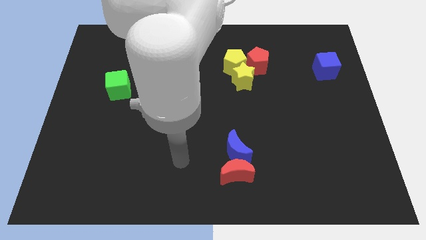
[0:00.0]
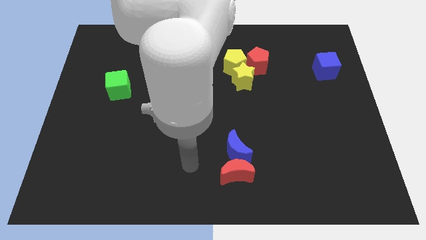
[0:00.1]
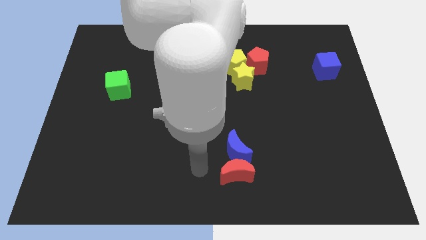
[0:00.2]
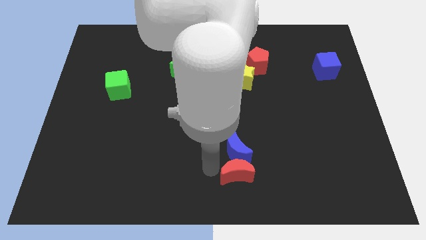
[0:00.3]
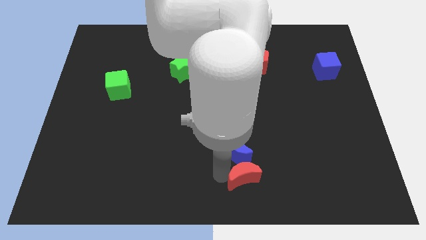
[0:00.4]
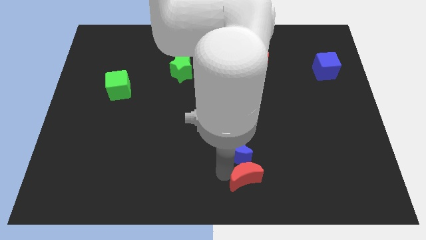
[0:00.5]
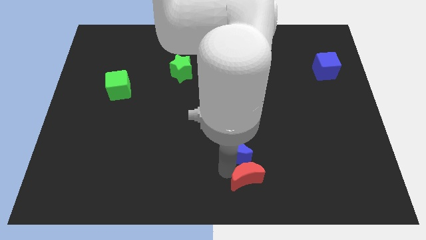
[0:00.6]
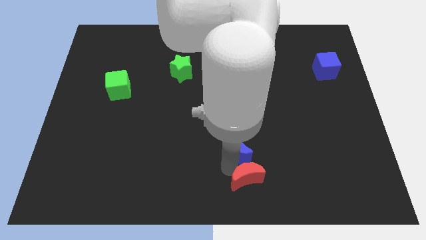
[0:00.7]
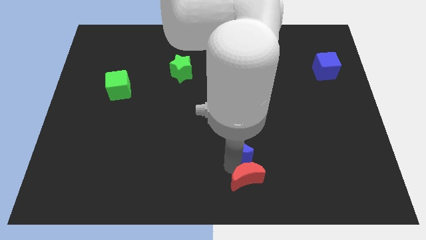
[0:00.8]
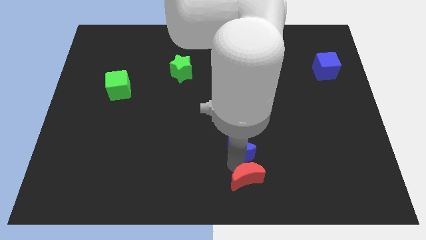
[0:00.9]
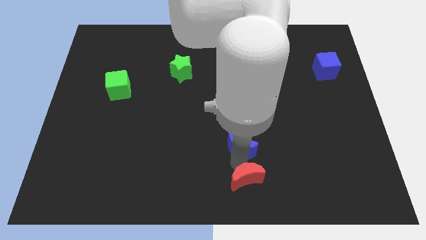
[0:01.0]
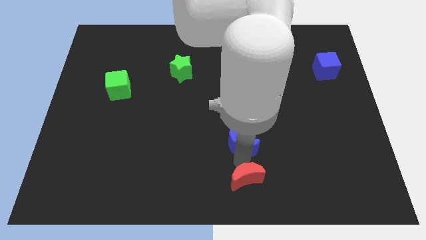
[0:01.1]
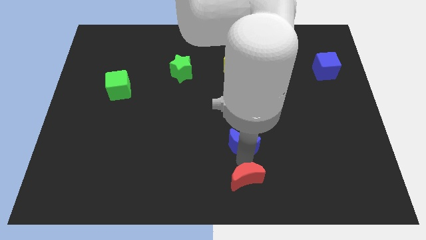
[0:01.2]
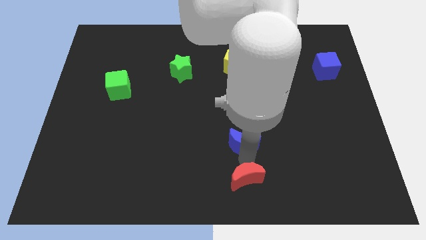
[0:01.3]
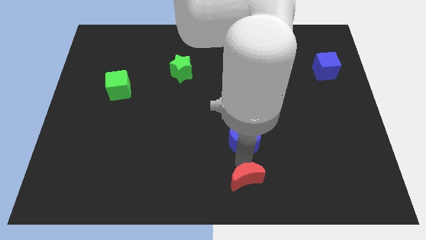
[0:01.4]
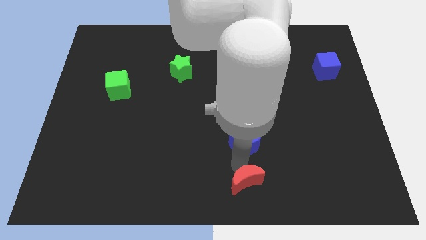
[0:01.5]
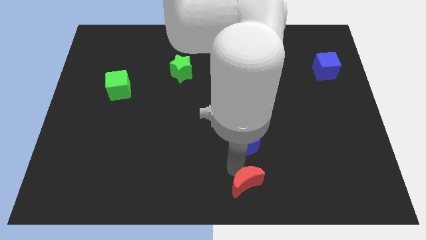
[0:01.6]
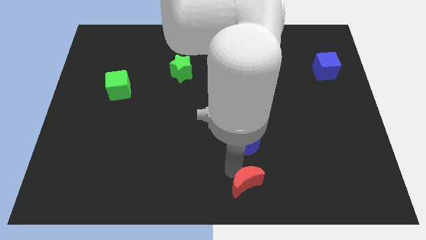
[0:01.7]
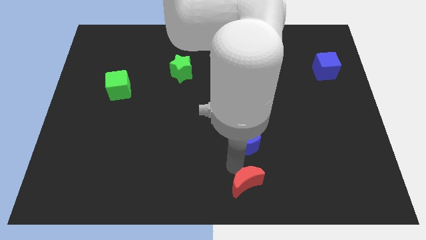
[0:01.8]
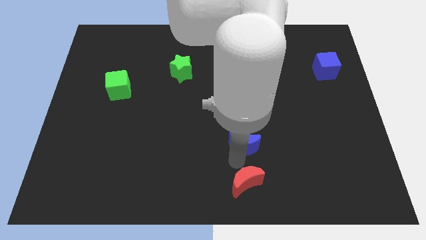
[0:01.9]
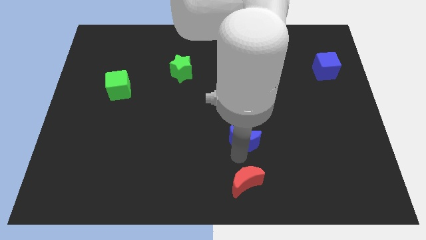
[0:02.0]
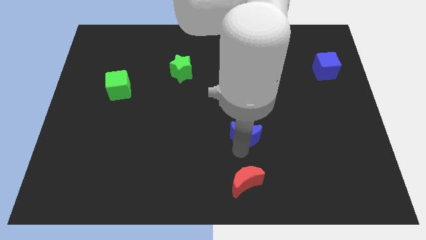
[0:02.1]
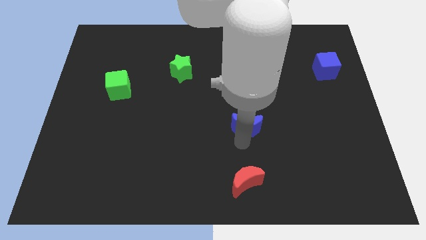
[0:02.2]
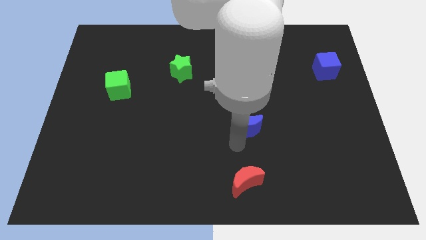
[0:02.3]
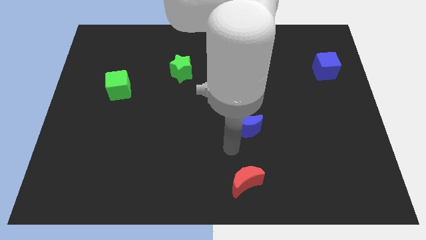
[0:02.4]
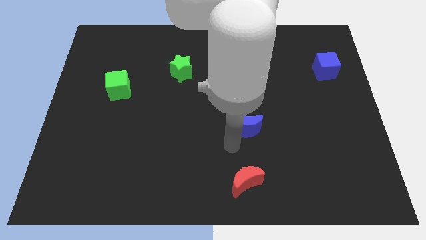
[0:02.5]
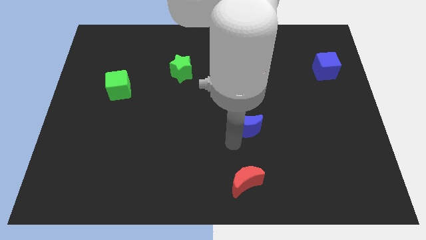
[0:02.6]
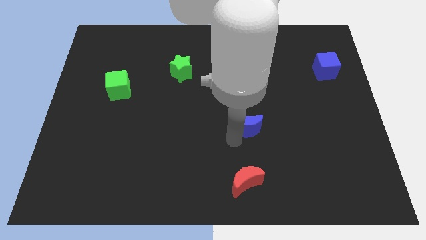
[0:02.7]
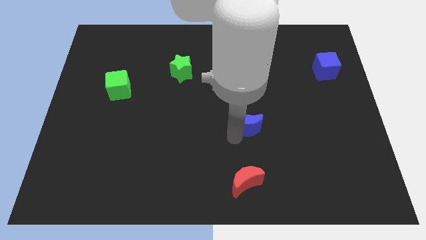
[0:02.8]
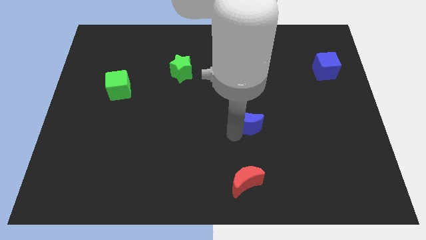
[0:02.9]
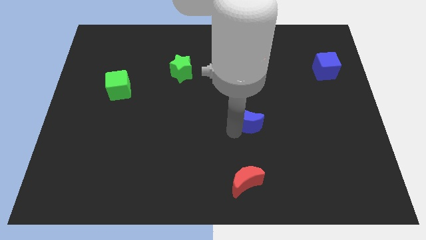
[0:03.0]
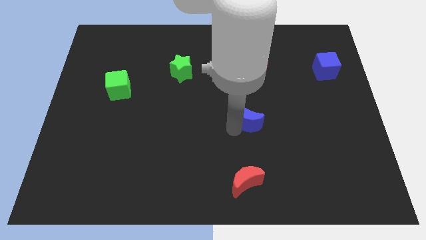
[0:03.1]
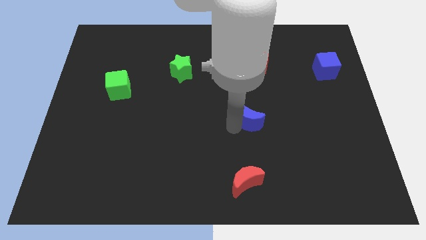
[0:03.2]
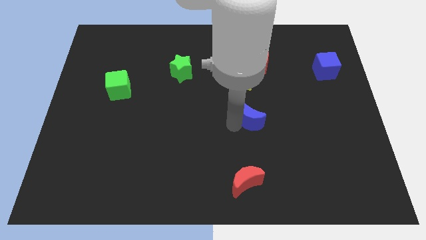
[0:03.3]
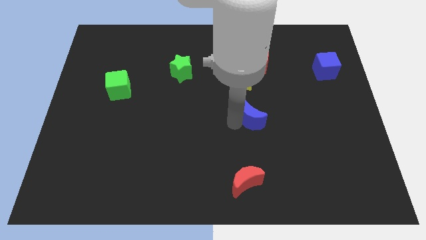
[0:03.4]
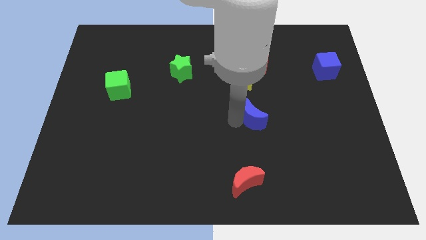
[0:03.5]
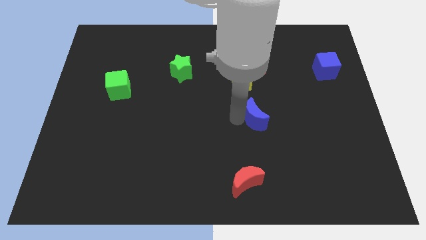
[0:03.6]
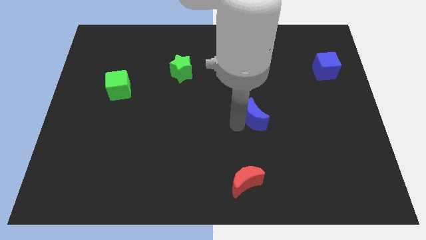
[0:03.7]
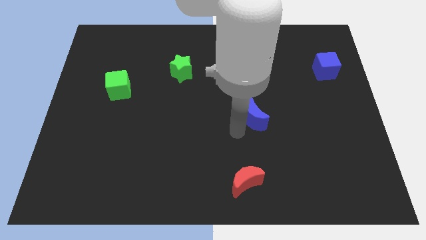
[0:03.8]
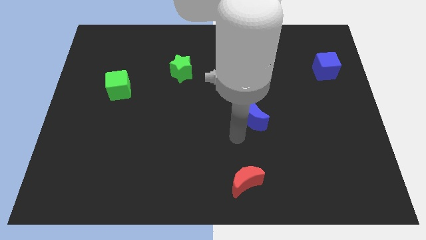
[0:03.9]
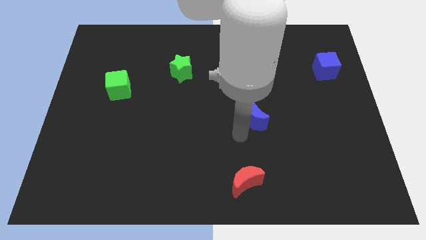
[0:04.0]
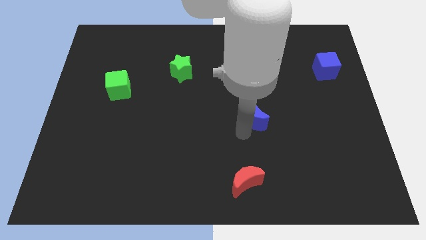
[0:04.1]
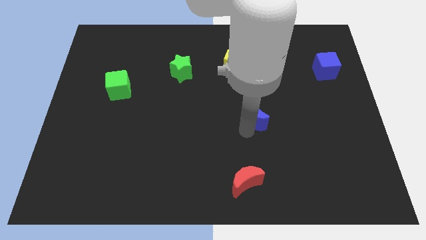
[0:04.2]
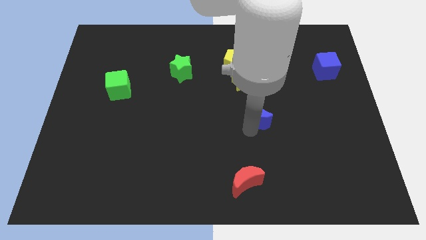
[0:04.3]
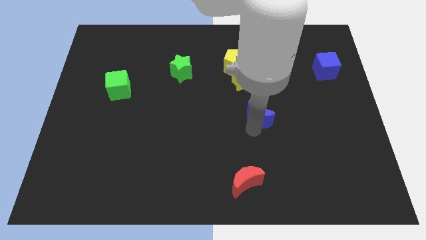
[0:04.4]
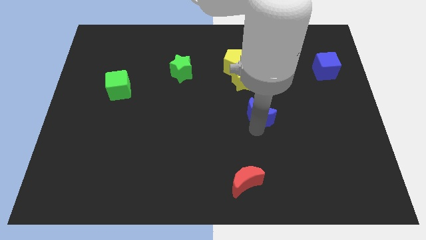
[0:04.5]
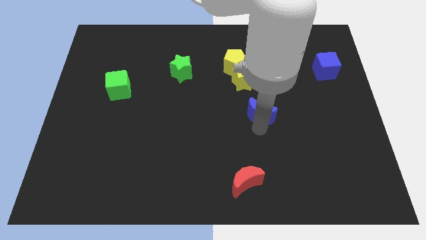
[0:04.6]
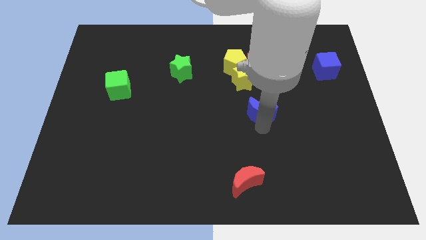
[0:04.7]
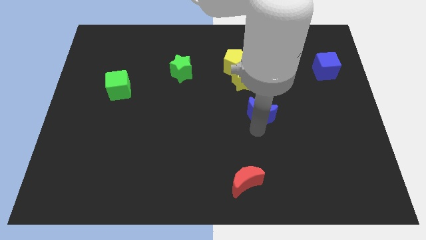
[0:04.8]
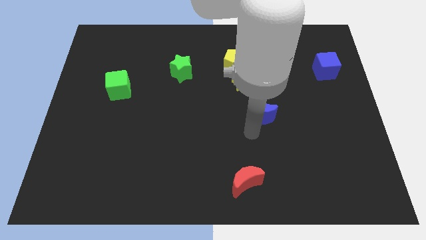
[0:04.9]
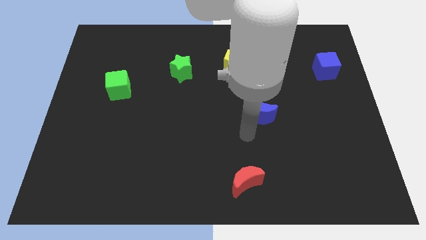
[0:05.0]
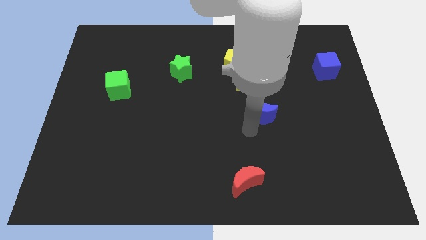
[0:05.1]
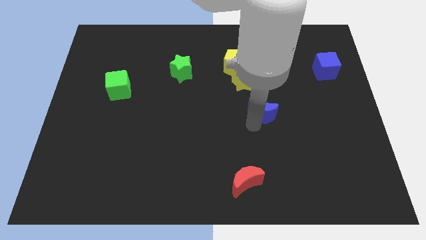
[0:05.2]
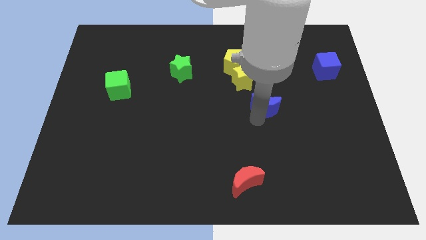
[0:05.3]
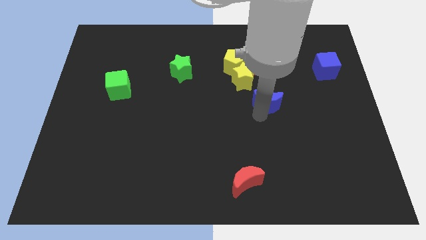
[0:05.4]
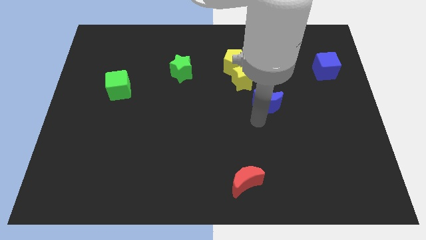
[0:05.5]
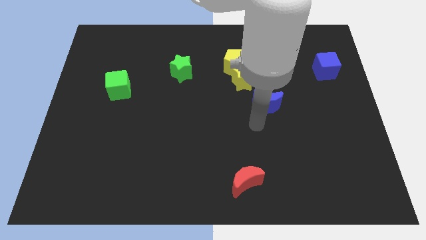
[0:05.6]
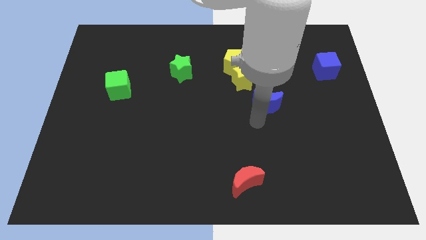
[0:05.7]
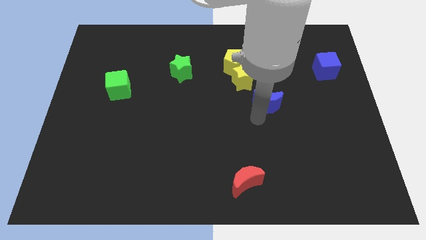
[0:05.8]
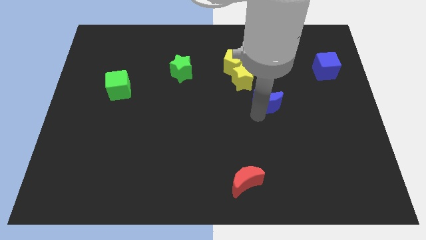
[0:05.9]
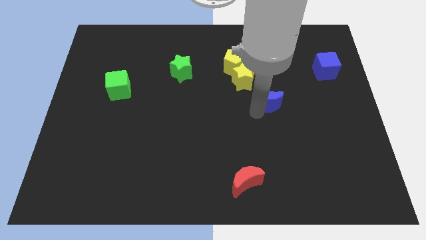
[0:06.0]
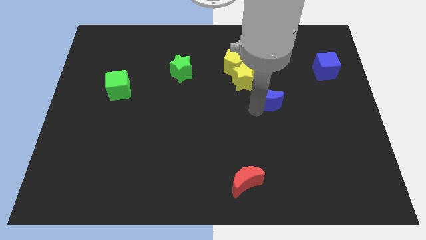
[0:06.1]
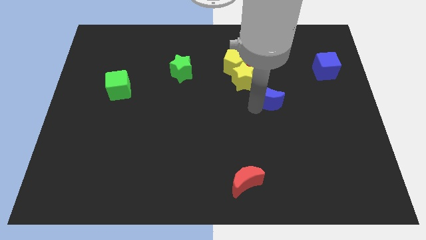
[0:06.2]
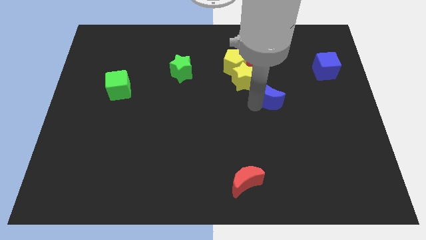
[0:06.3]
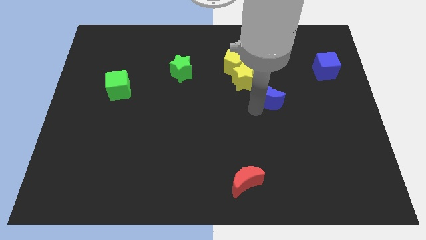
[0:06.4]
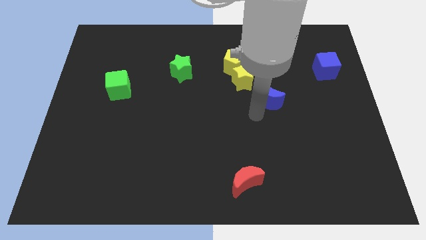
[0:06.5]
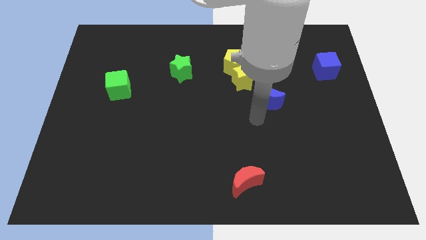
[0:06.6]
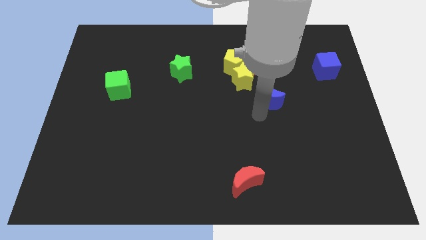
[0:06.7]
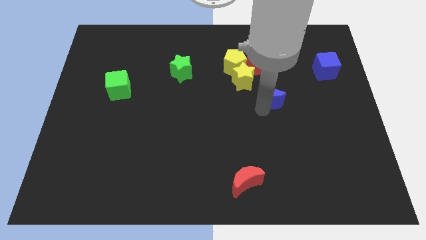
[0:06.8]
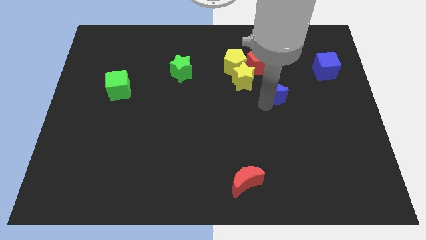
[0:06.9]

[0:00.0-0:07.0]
move the blue moon diagonally down and to the right of the red pentagon
